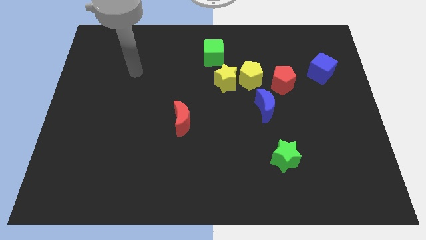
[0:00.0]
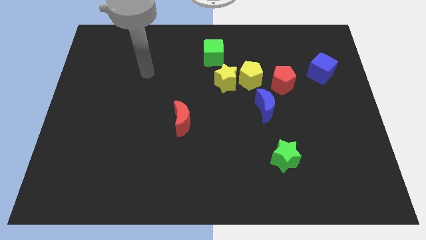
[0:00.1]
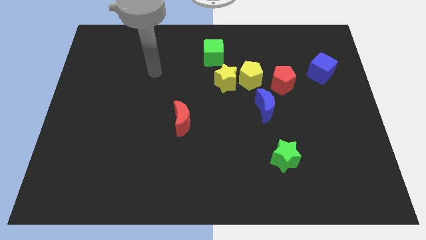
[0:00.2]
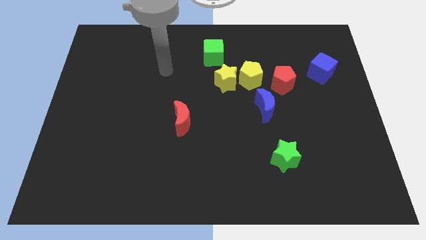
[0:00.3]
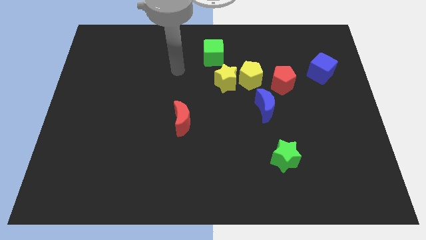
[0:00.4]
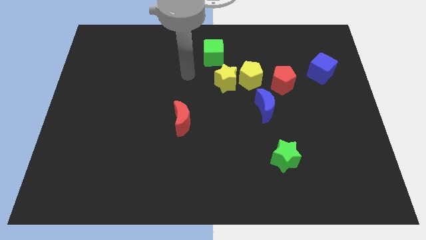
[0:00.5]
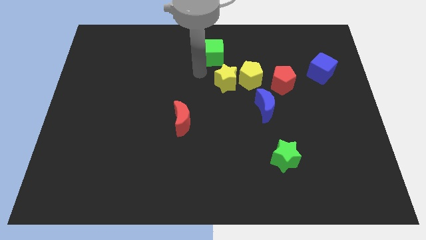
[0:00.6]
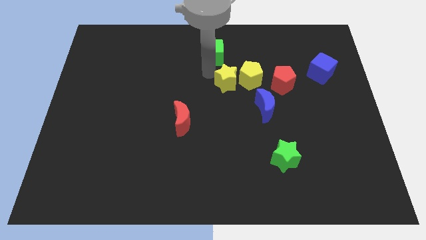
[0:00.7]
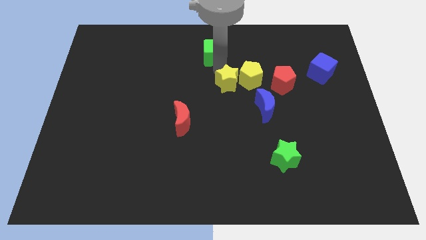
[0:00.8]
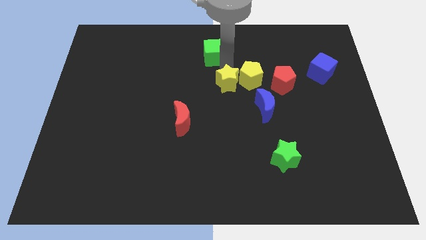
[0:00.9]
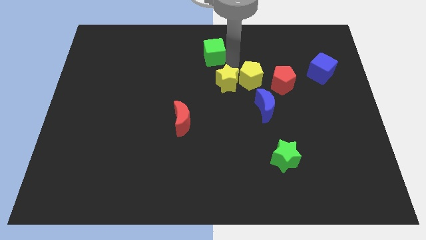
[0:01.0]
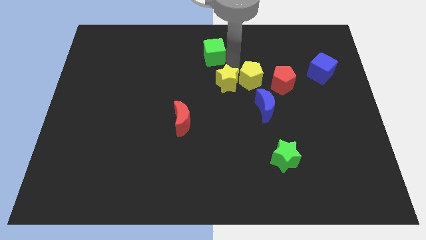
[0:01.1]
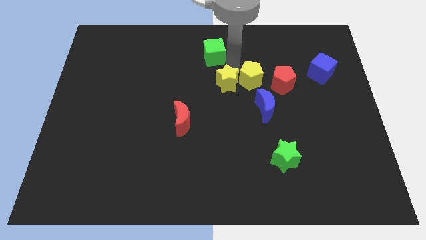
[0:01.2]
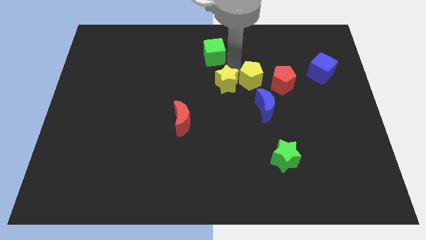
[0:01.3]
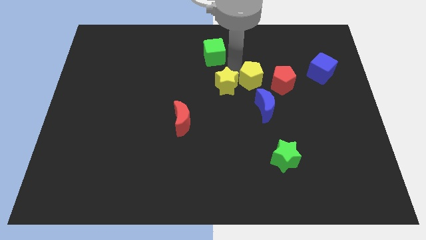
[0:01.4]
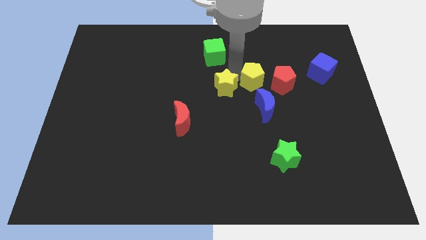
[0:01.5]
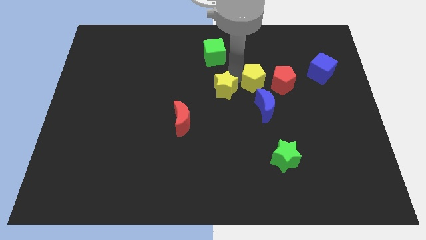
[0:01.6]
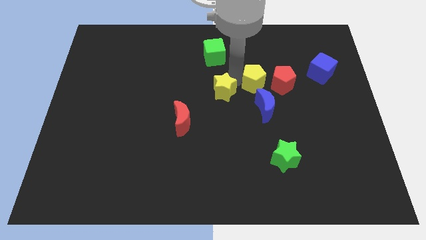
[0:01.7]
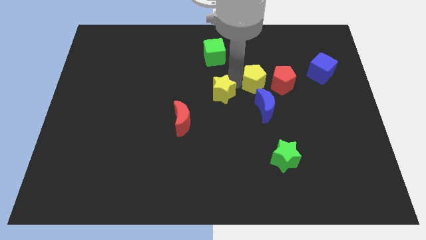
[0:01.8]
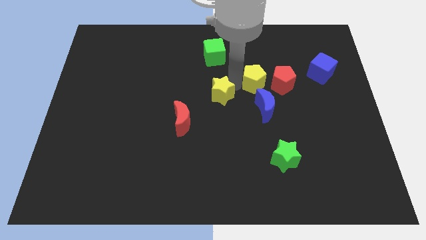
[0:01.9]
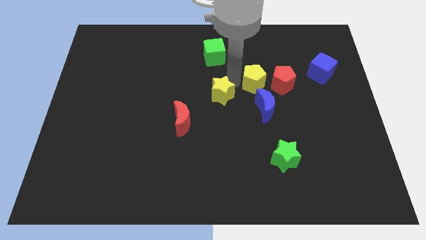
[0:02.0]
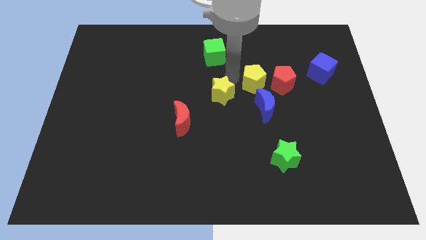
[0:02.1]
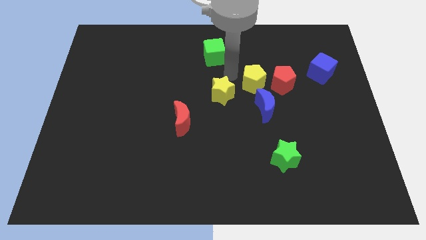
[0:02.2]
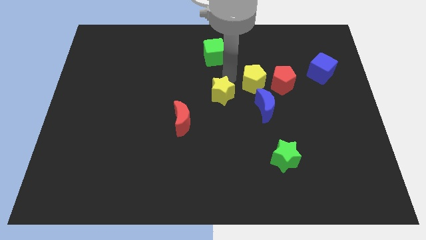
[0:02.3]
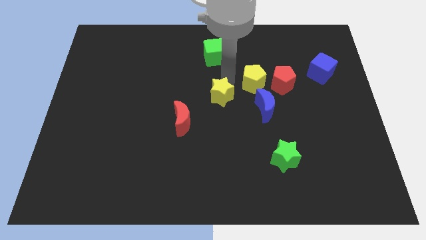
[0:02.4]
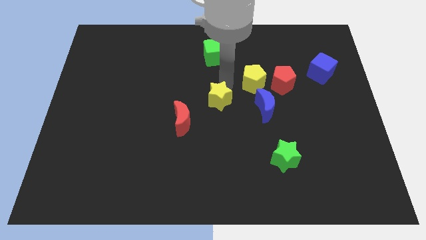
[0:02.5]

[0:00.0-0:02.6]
separate the yellow star from the yellow pentagon and green cube

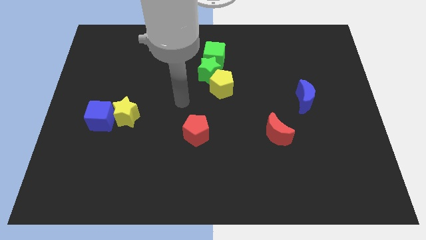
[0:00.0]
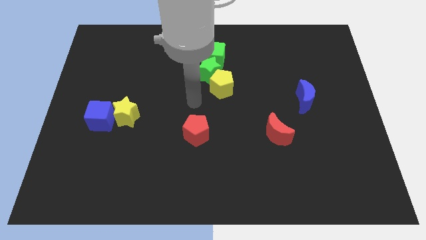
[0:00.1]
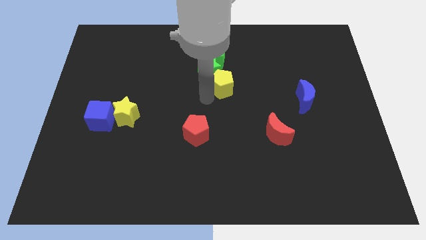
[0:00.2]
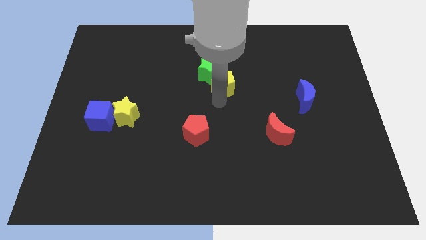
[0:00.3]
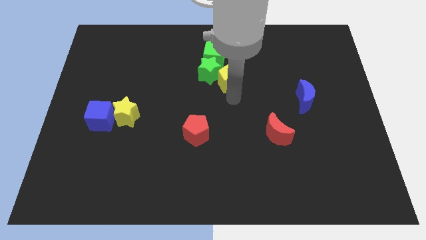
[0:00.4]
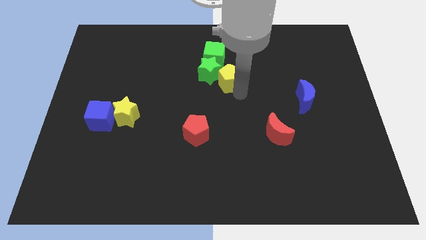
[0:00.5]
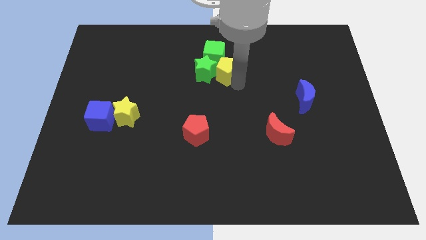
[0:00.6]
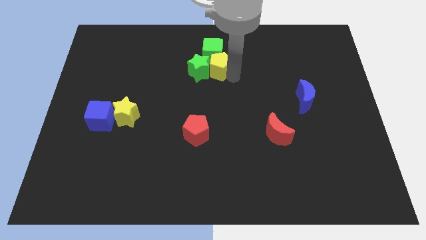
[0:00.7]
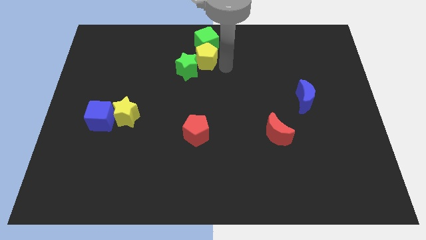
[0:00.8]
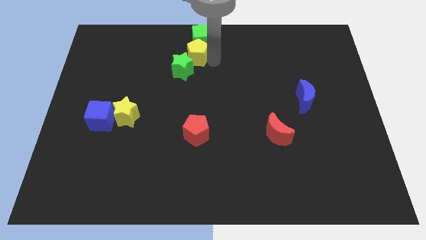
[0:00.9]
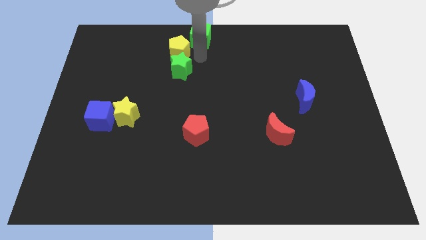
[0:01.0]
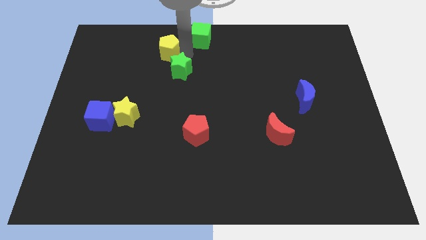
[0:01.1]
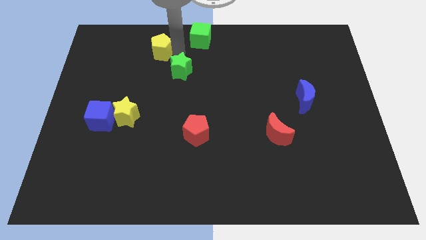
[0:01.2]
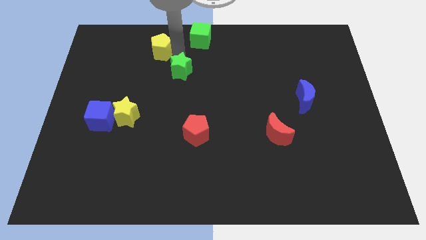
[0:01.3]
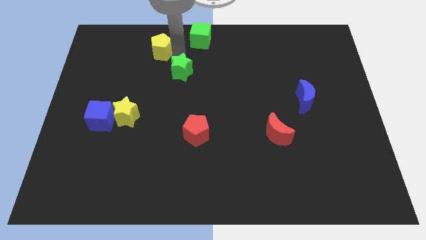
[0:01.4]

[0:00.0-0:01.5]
separate the green star from the yellow pentagon and green cube

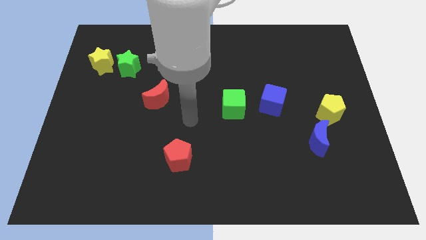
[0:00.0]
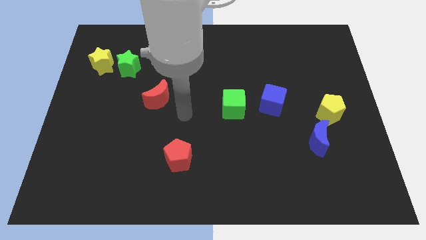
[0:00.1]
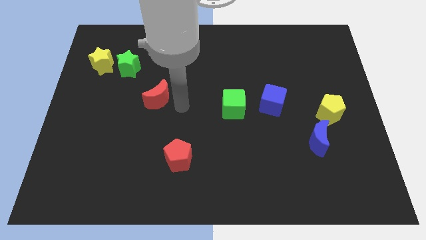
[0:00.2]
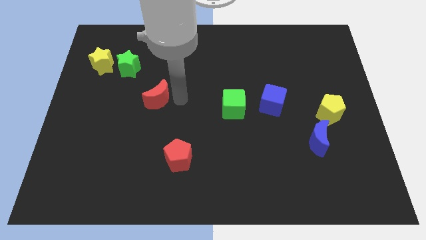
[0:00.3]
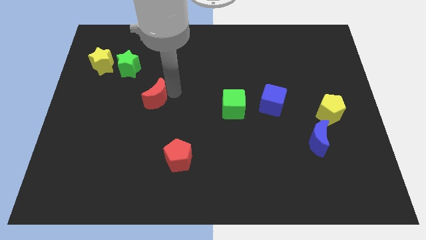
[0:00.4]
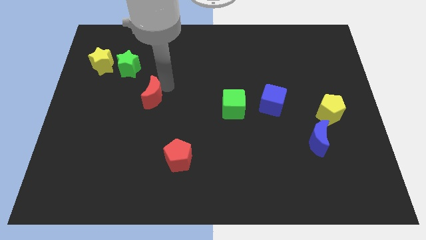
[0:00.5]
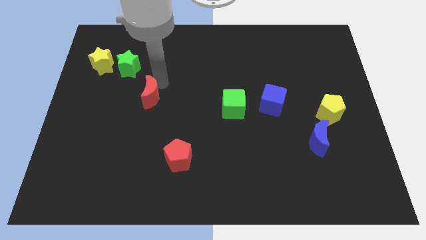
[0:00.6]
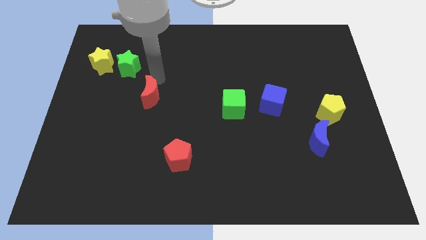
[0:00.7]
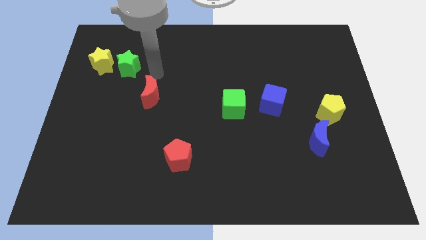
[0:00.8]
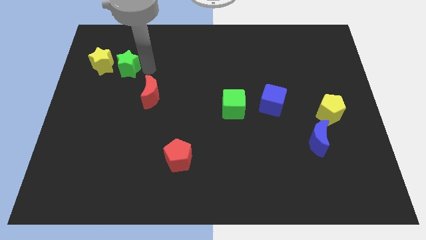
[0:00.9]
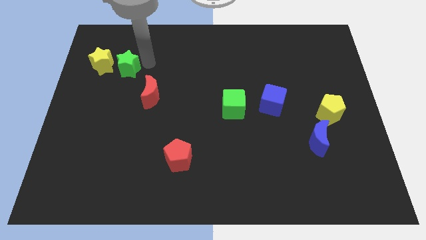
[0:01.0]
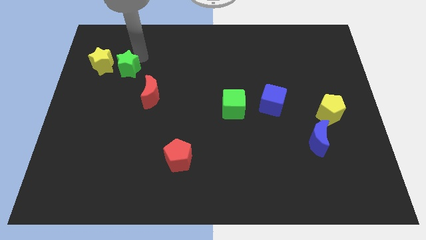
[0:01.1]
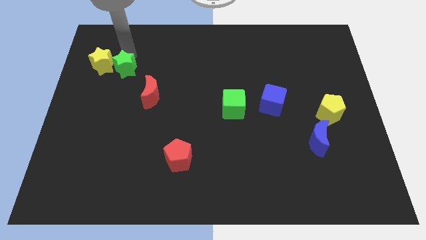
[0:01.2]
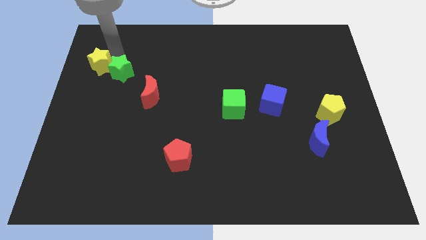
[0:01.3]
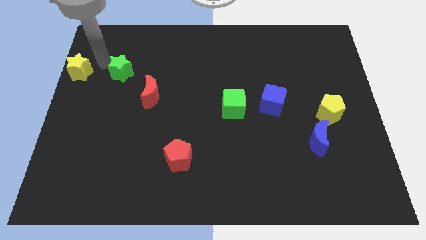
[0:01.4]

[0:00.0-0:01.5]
pull the green star apart from the yellow star

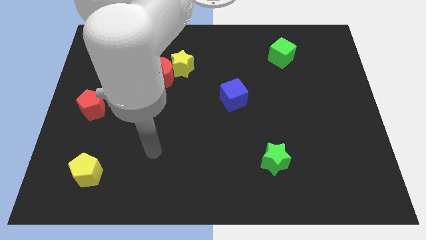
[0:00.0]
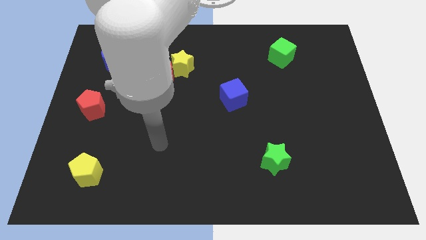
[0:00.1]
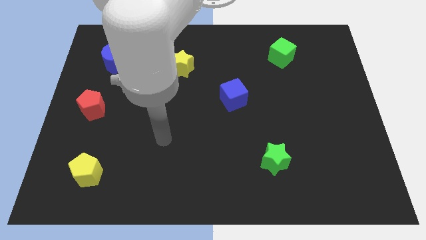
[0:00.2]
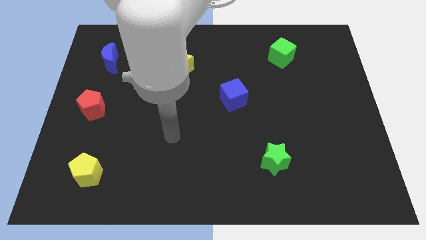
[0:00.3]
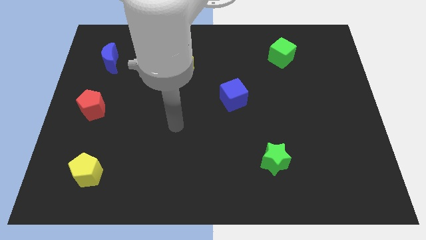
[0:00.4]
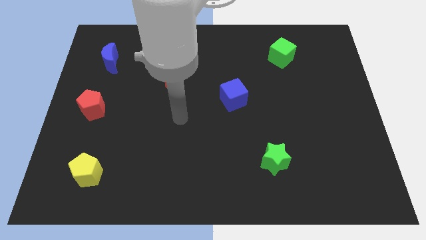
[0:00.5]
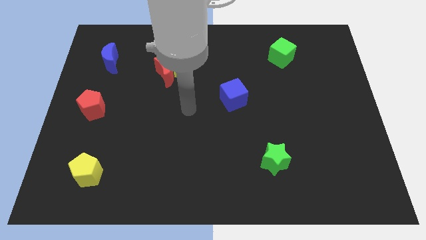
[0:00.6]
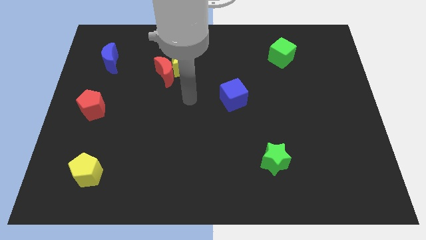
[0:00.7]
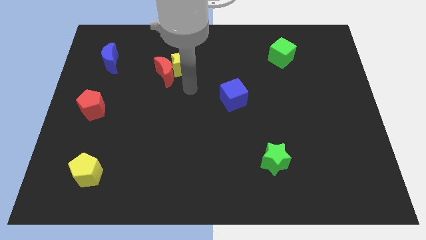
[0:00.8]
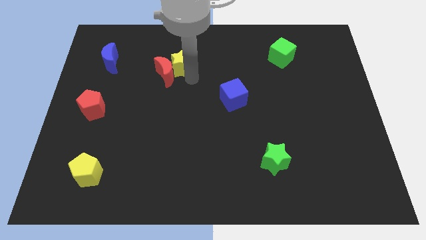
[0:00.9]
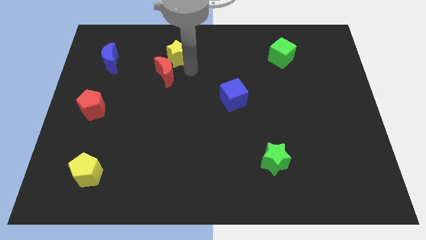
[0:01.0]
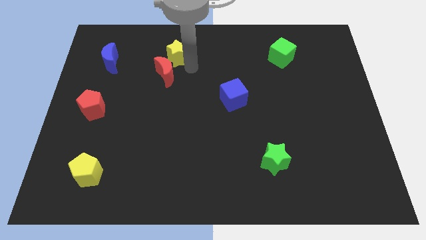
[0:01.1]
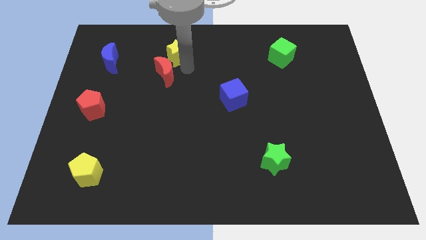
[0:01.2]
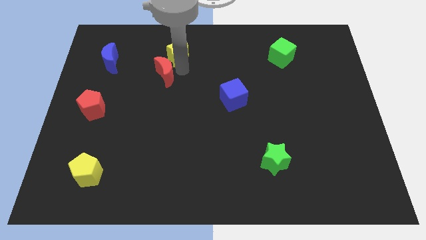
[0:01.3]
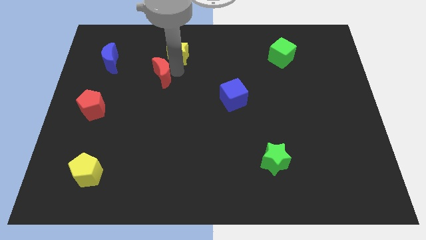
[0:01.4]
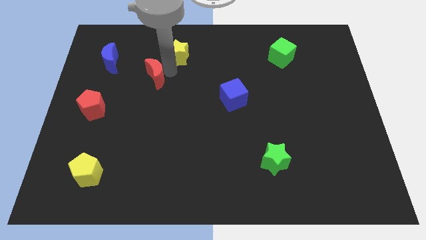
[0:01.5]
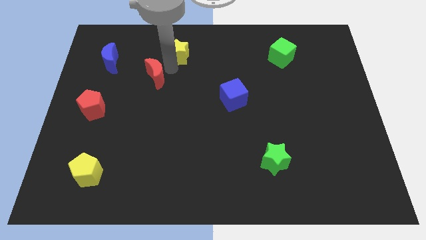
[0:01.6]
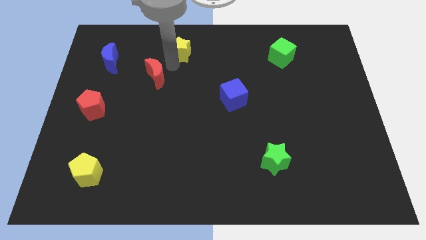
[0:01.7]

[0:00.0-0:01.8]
separate the red moon from the yellow star

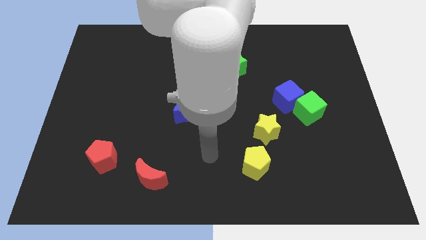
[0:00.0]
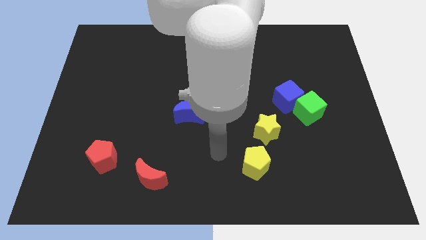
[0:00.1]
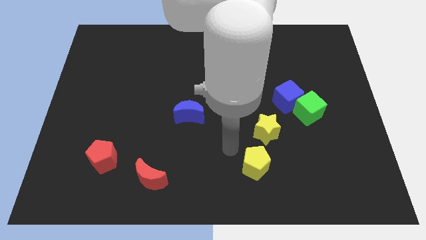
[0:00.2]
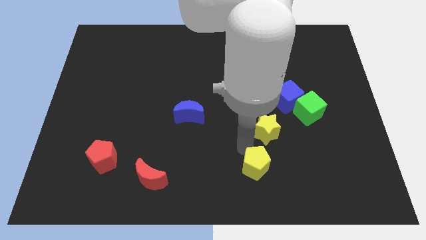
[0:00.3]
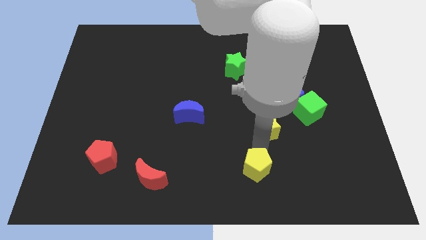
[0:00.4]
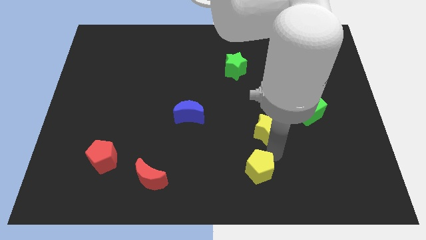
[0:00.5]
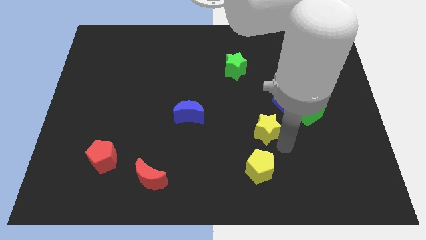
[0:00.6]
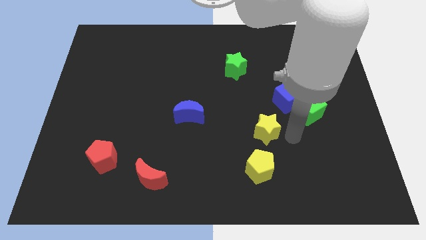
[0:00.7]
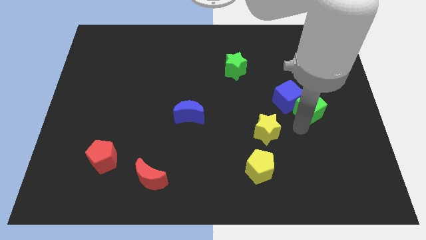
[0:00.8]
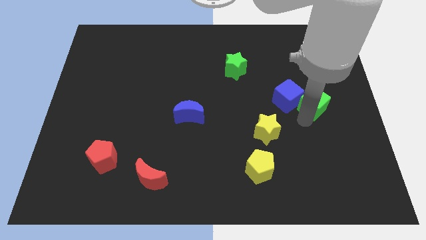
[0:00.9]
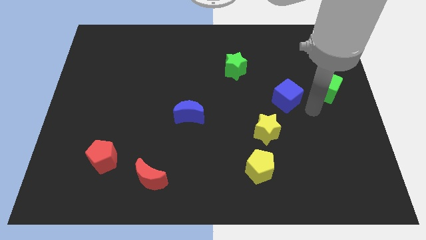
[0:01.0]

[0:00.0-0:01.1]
pull the blue cube apart from the green cube

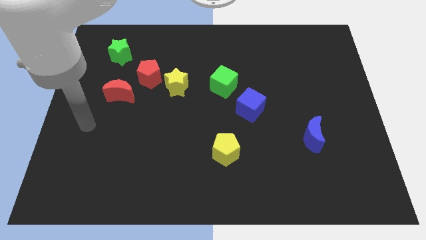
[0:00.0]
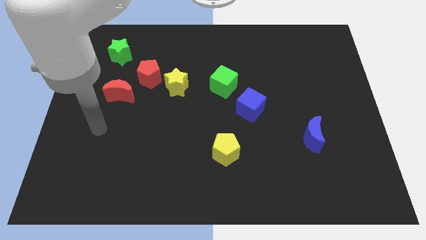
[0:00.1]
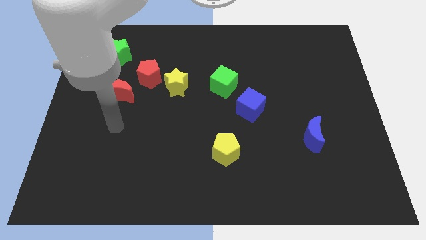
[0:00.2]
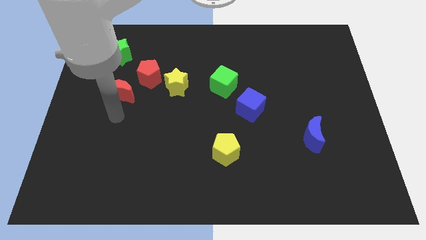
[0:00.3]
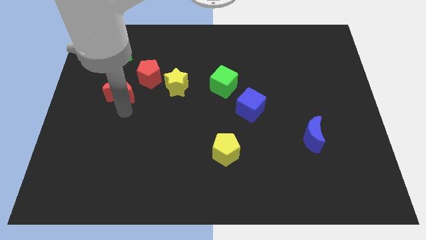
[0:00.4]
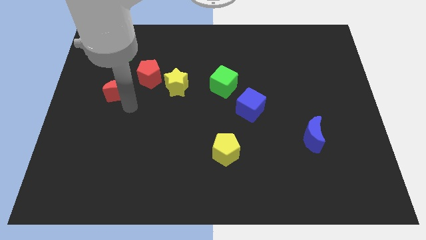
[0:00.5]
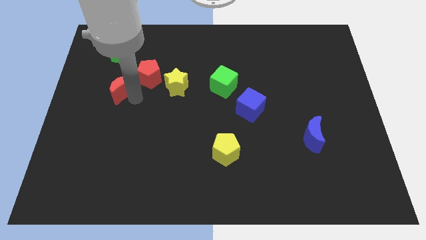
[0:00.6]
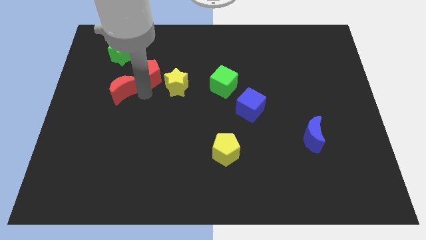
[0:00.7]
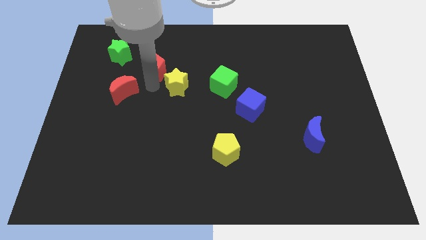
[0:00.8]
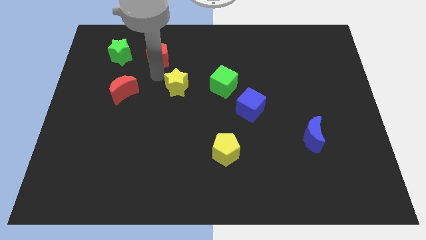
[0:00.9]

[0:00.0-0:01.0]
pull the yellow star apart from the red pentagon
